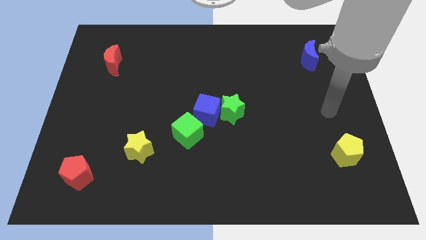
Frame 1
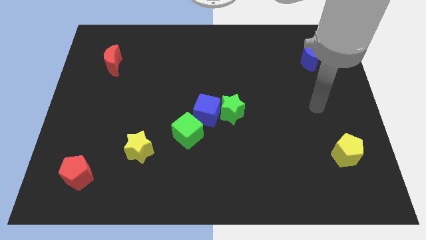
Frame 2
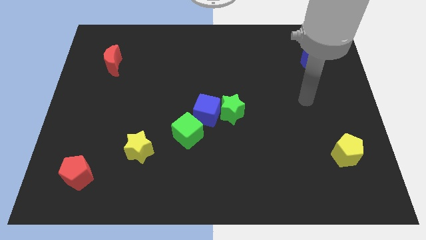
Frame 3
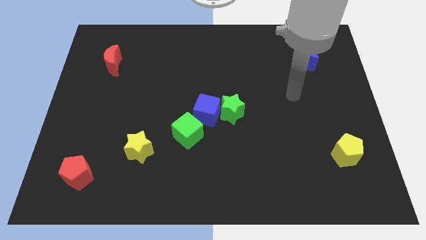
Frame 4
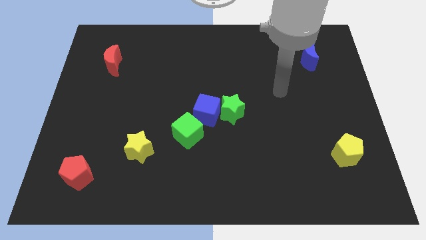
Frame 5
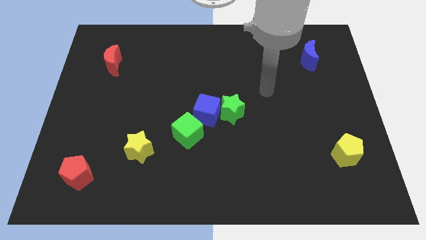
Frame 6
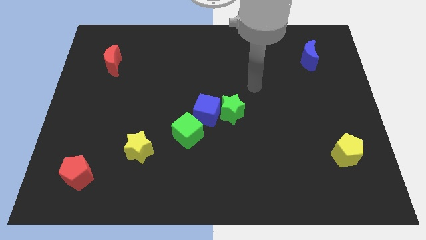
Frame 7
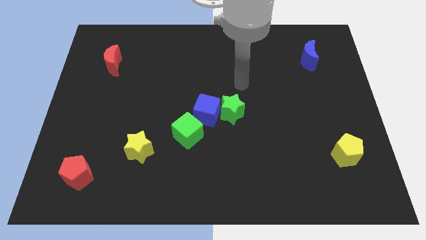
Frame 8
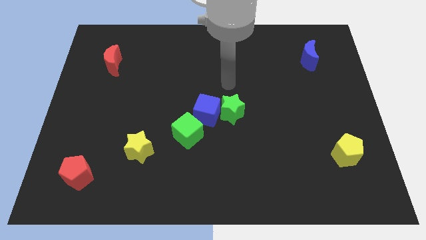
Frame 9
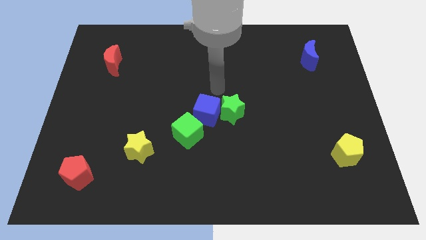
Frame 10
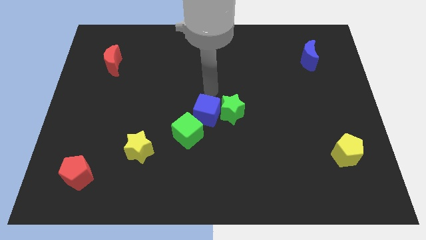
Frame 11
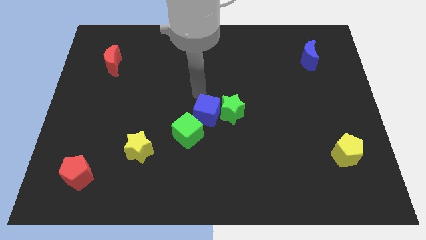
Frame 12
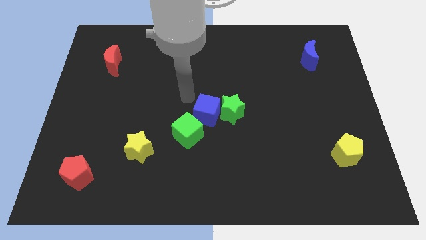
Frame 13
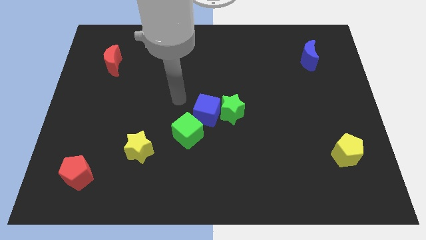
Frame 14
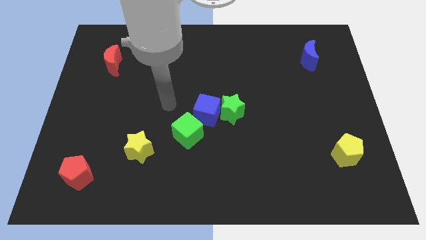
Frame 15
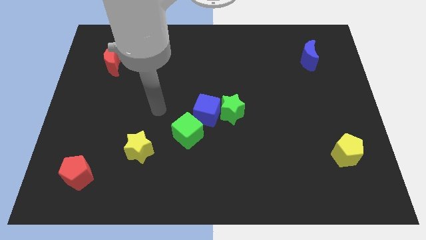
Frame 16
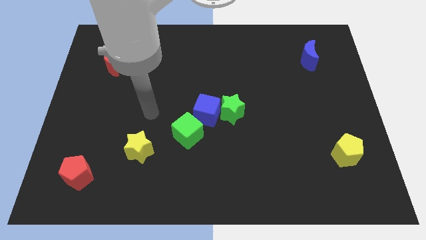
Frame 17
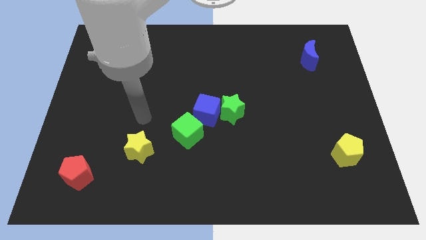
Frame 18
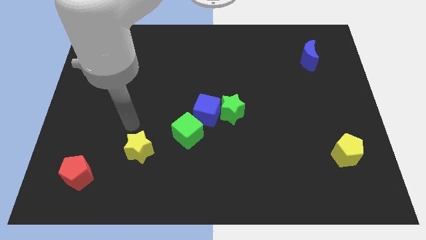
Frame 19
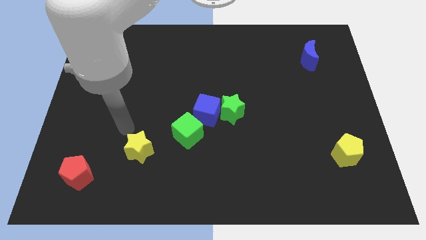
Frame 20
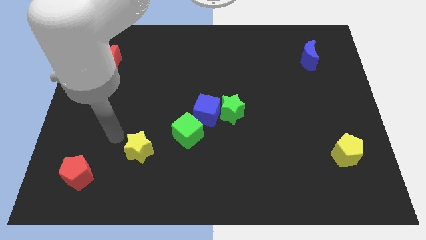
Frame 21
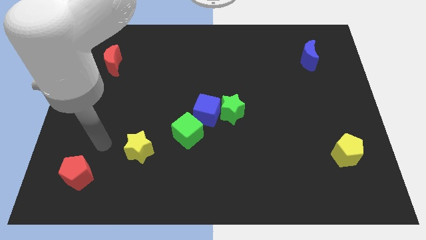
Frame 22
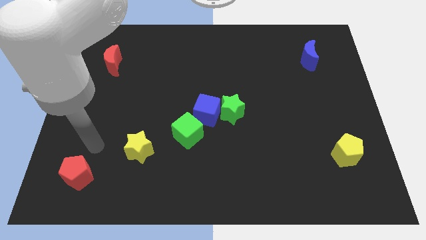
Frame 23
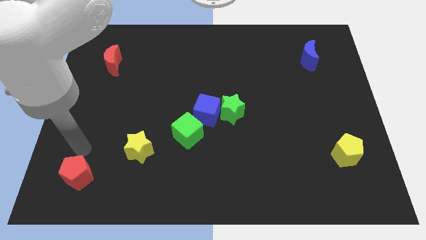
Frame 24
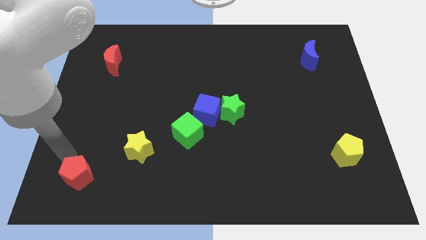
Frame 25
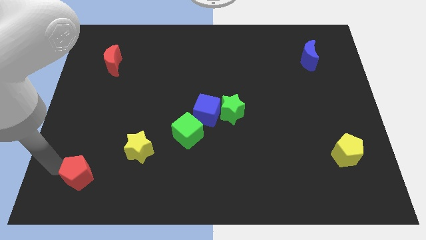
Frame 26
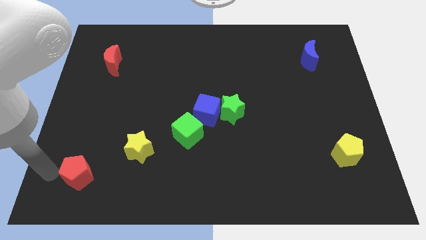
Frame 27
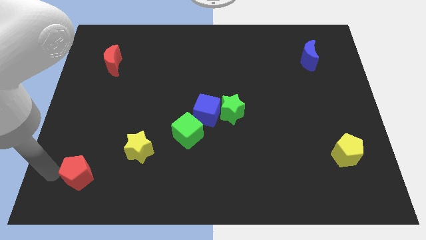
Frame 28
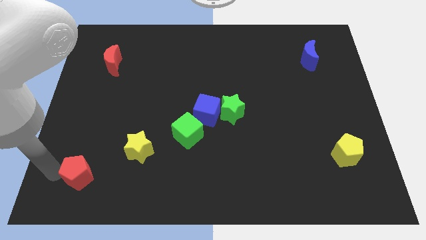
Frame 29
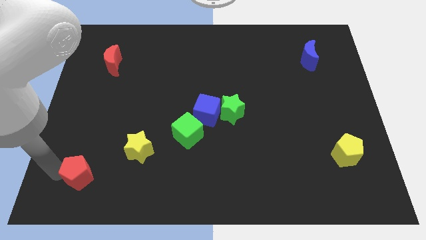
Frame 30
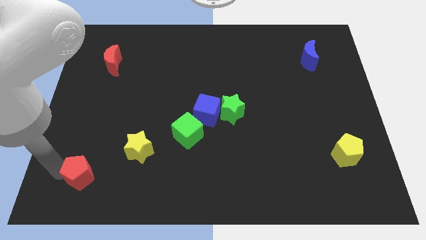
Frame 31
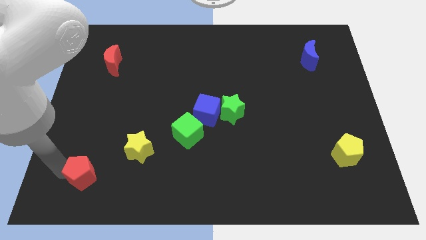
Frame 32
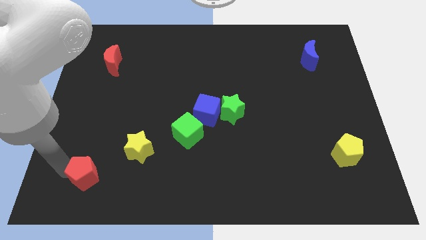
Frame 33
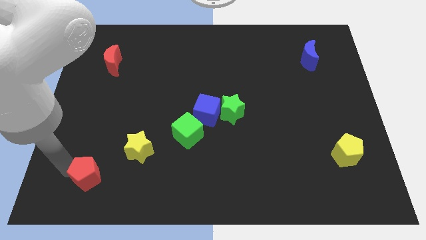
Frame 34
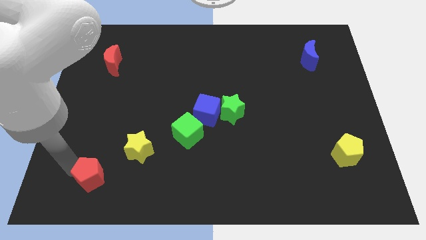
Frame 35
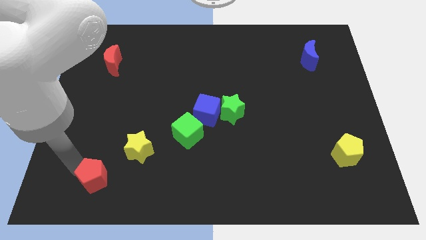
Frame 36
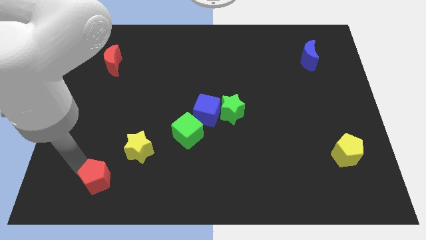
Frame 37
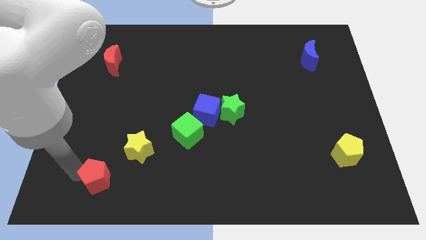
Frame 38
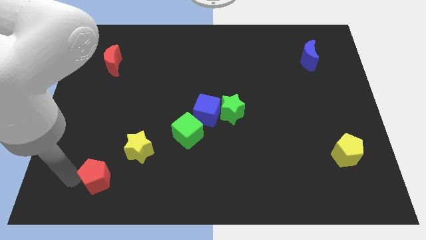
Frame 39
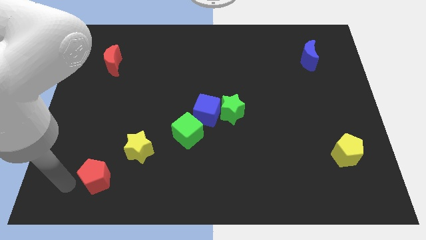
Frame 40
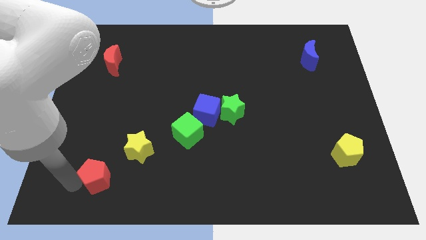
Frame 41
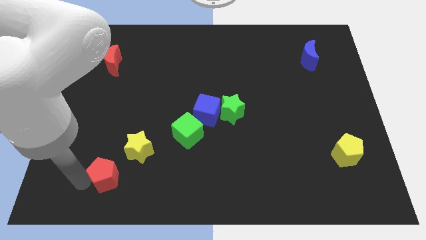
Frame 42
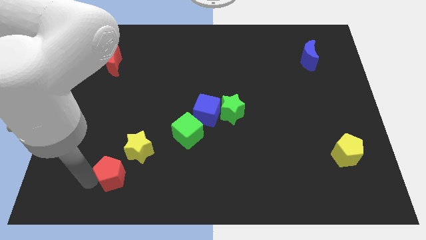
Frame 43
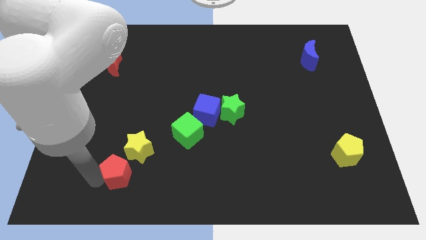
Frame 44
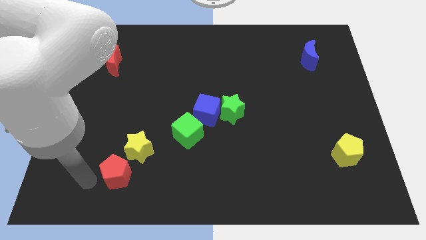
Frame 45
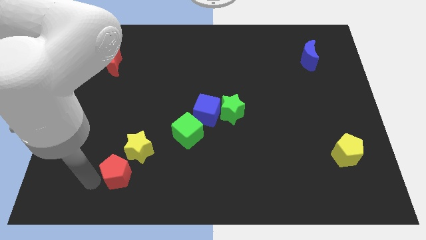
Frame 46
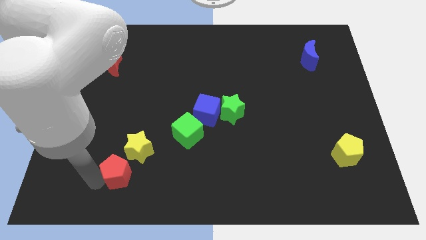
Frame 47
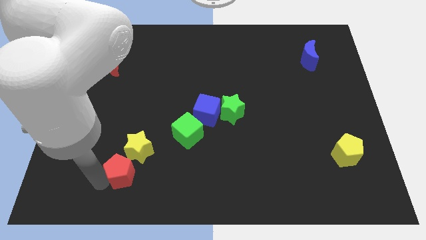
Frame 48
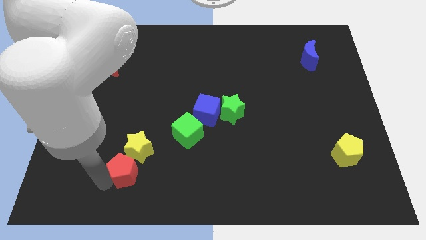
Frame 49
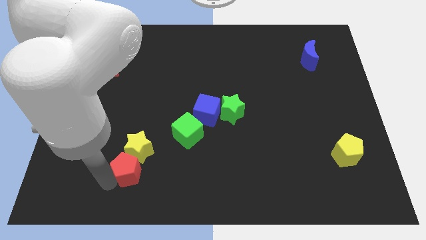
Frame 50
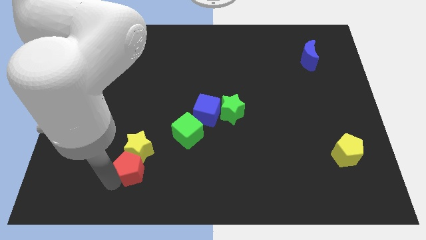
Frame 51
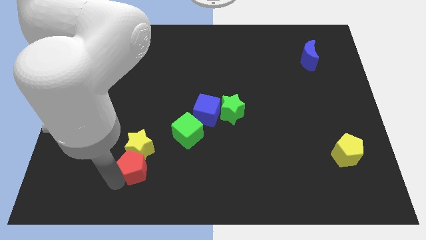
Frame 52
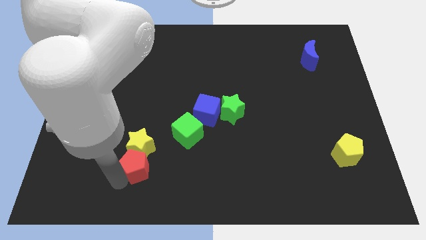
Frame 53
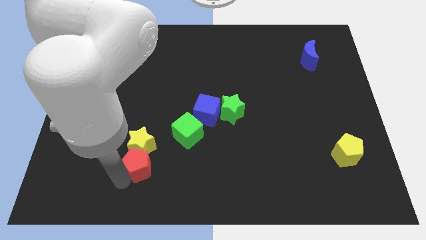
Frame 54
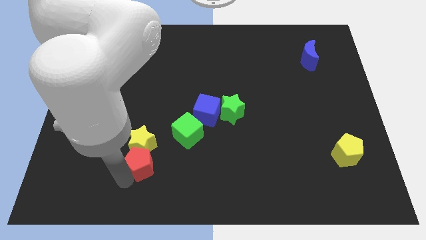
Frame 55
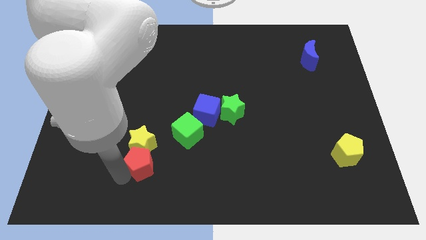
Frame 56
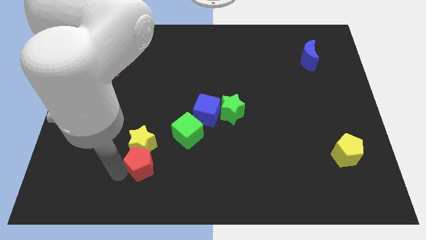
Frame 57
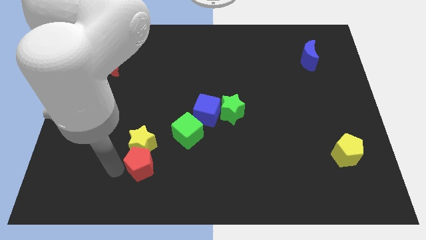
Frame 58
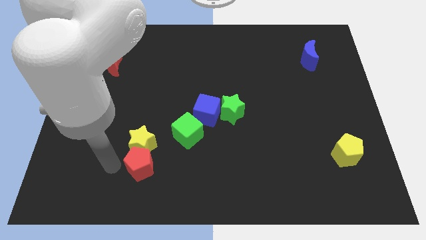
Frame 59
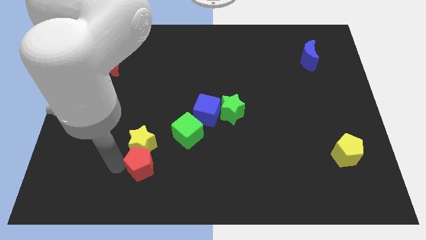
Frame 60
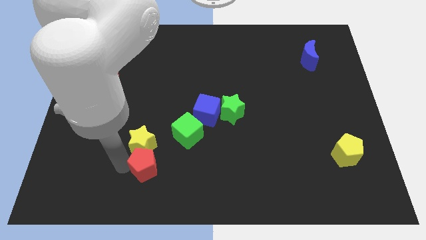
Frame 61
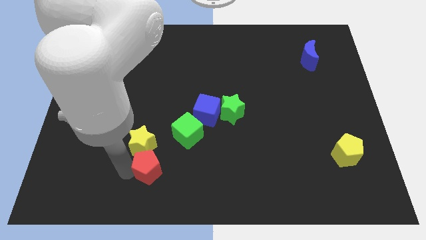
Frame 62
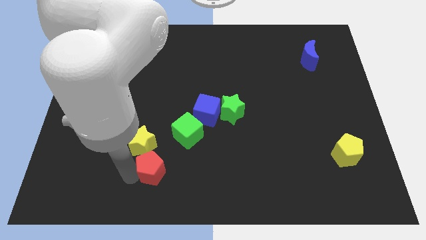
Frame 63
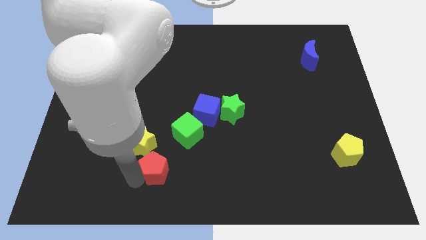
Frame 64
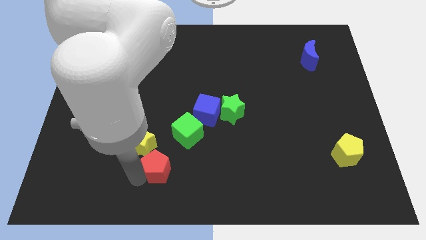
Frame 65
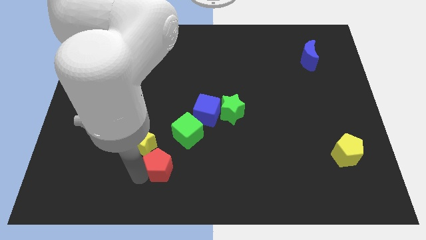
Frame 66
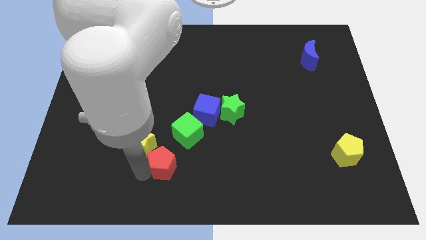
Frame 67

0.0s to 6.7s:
put the red pentagon just right of the yellow star

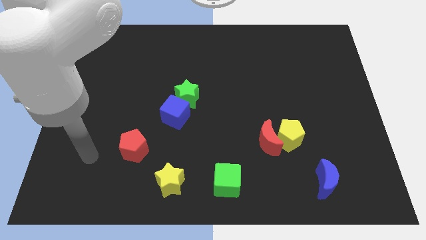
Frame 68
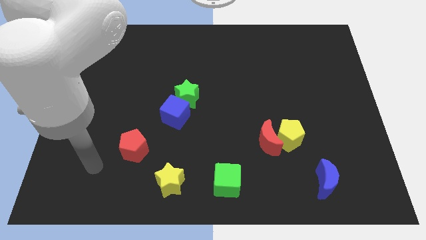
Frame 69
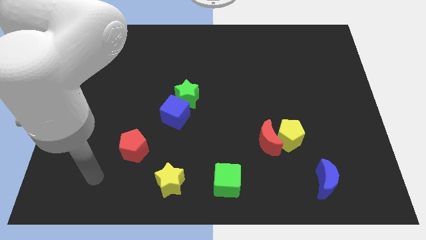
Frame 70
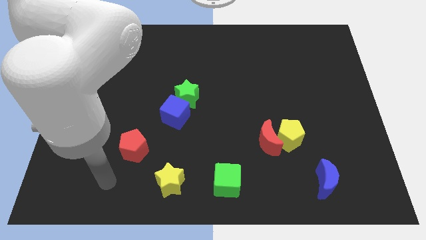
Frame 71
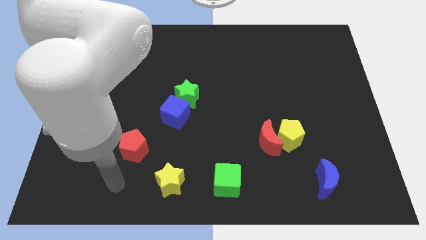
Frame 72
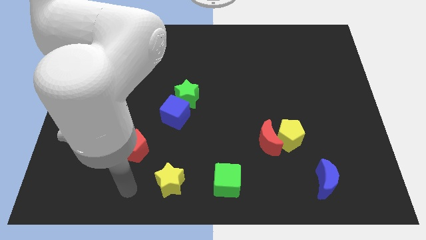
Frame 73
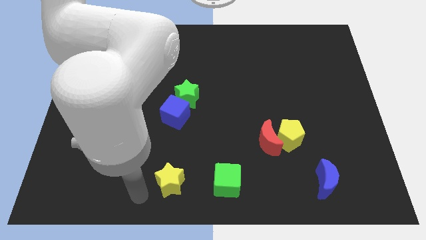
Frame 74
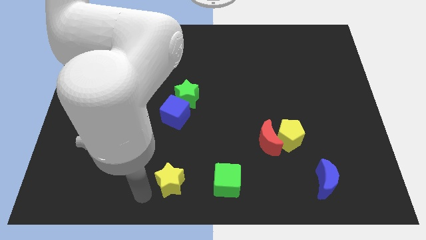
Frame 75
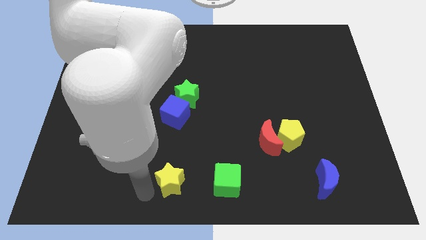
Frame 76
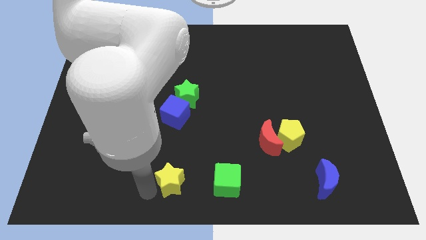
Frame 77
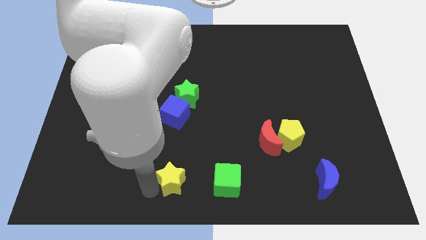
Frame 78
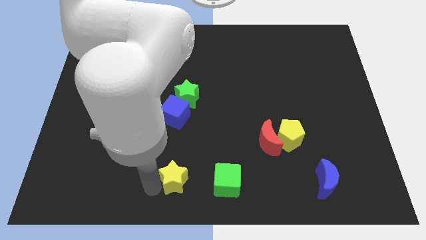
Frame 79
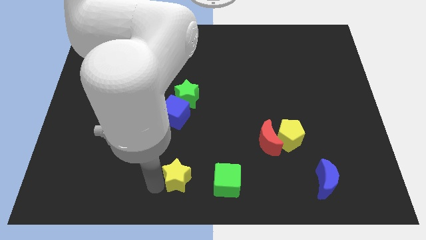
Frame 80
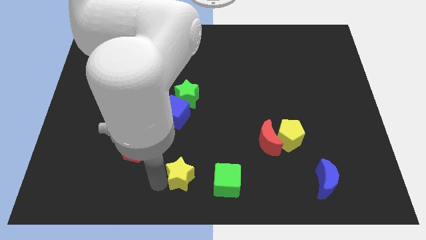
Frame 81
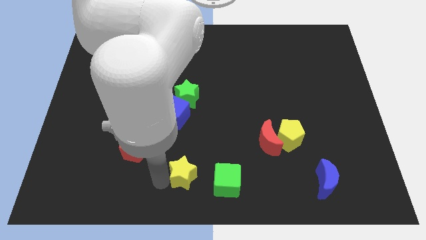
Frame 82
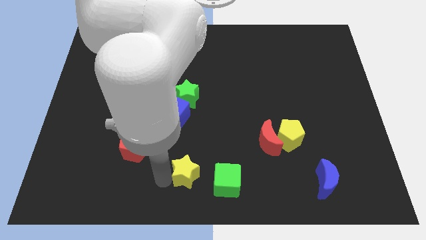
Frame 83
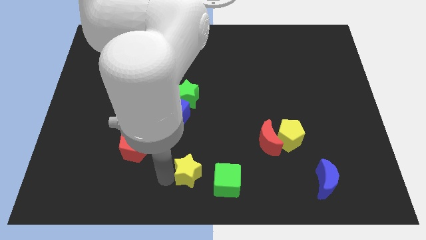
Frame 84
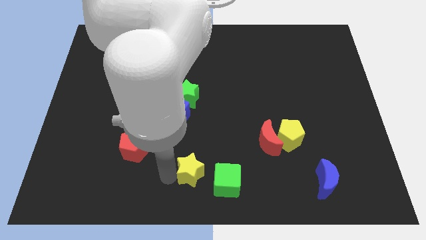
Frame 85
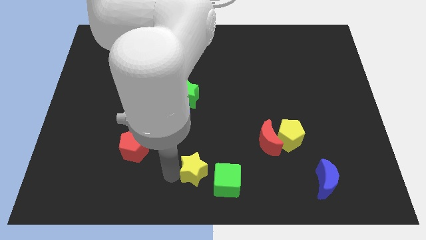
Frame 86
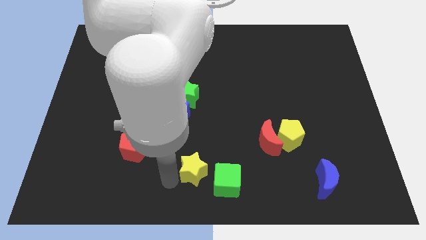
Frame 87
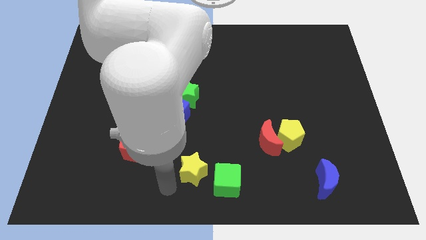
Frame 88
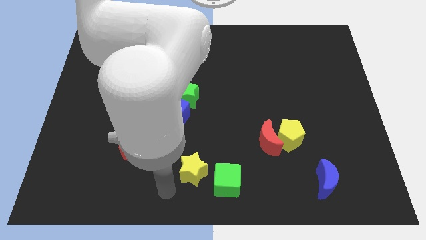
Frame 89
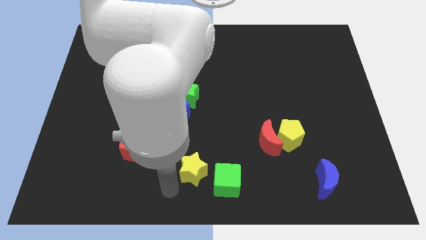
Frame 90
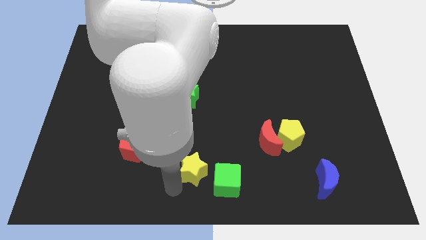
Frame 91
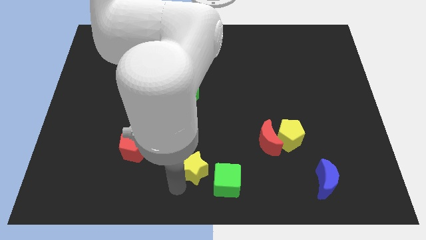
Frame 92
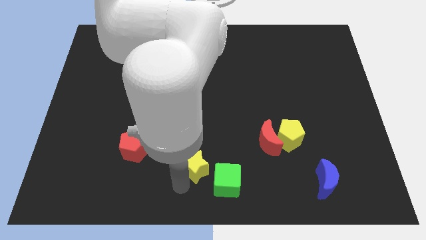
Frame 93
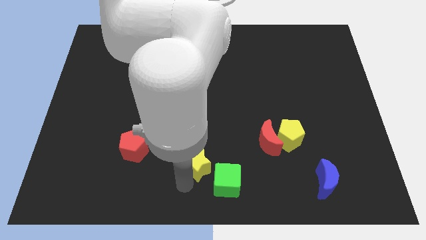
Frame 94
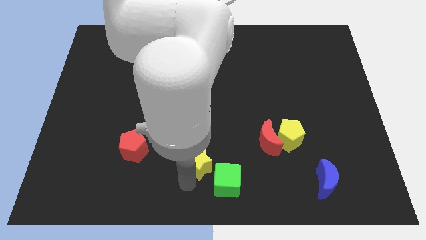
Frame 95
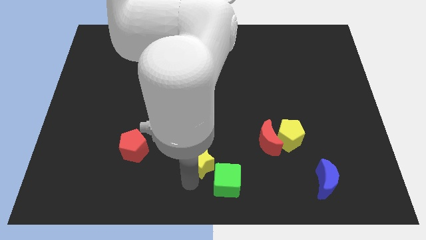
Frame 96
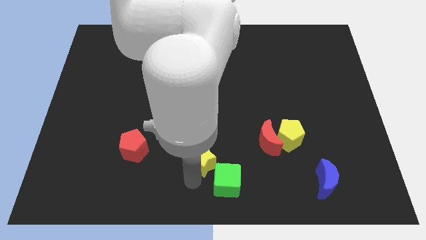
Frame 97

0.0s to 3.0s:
push the yellow star to the top of the green cube
